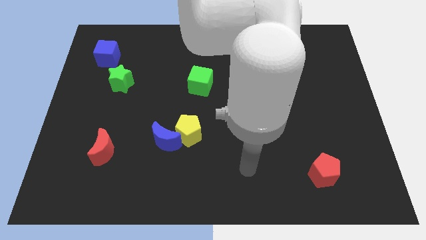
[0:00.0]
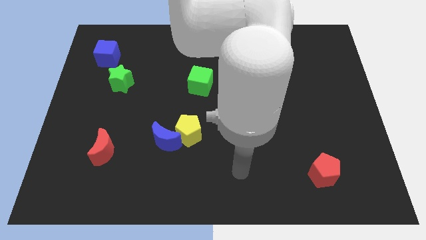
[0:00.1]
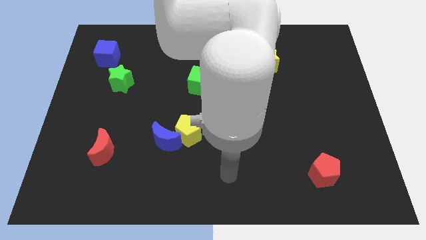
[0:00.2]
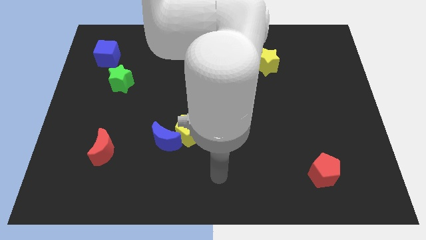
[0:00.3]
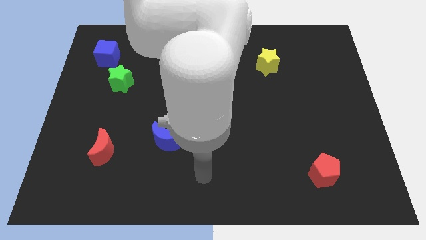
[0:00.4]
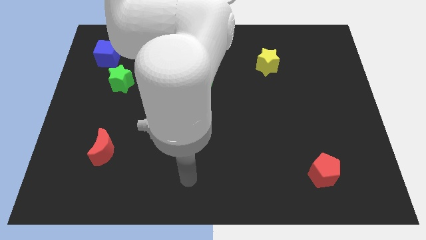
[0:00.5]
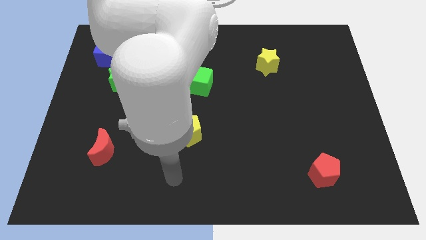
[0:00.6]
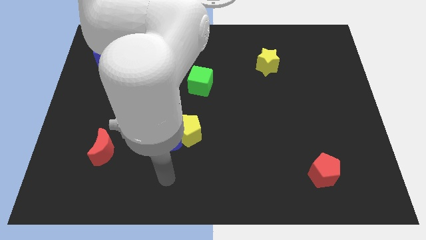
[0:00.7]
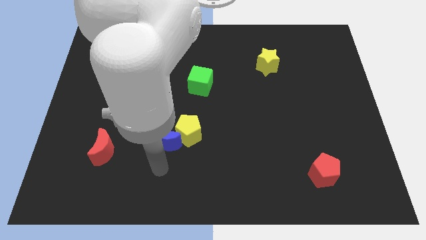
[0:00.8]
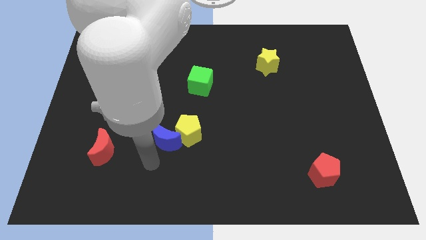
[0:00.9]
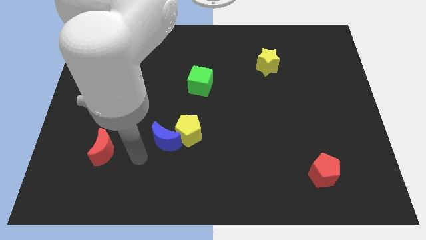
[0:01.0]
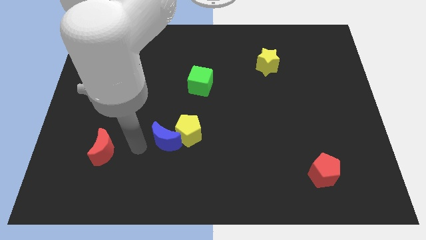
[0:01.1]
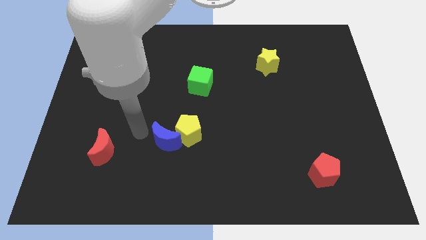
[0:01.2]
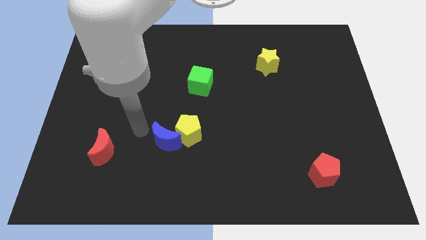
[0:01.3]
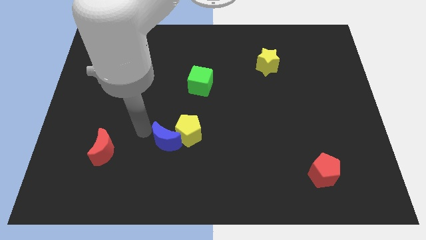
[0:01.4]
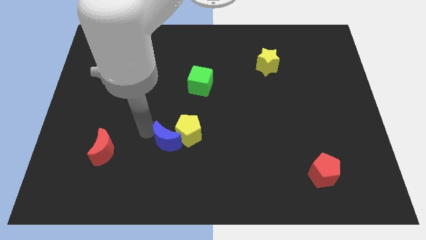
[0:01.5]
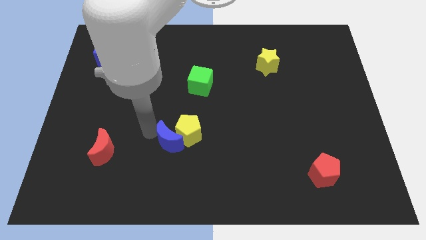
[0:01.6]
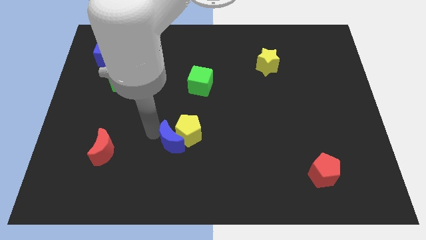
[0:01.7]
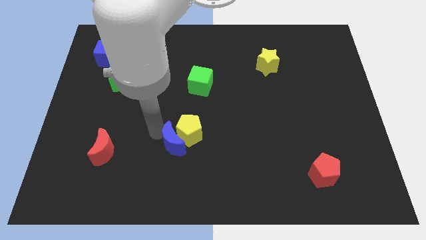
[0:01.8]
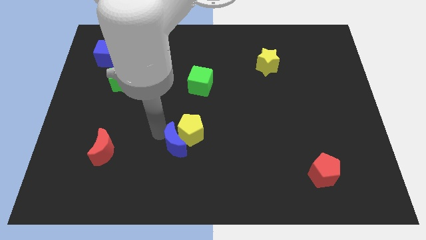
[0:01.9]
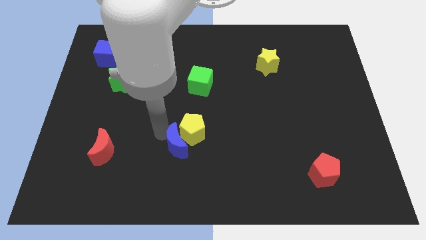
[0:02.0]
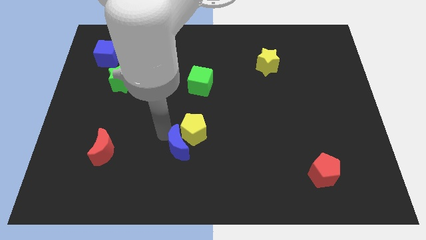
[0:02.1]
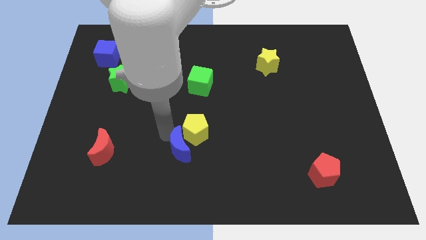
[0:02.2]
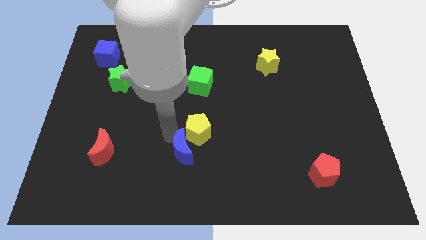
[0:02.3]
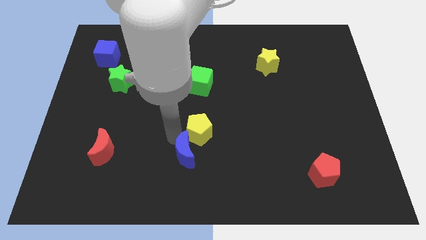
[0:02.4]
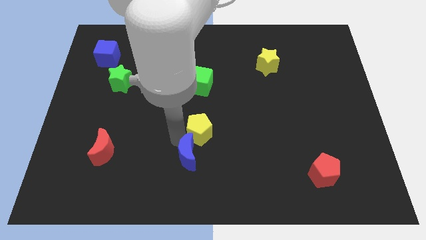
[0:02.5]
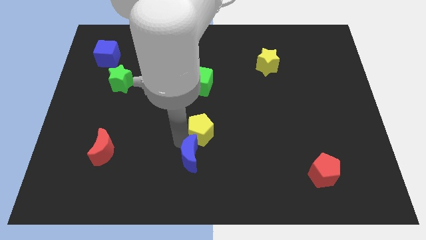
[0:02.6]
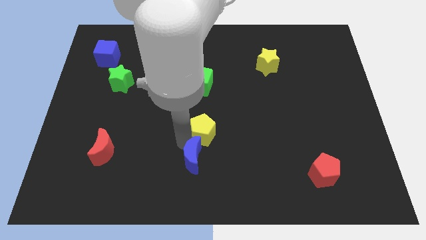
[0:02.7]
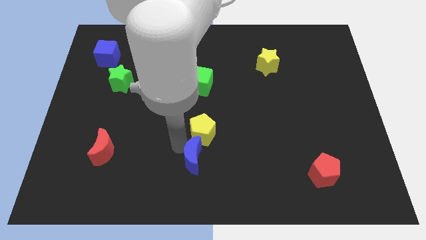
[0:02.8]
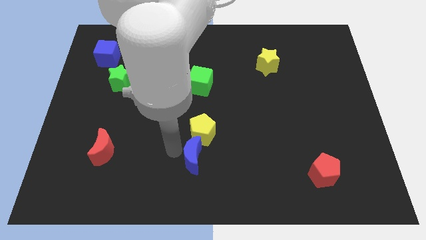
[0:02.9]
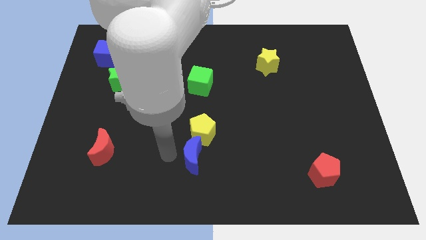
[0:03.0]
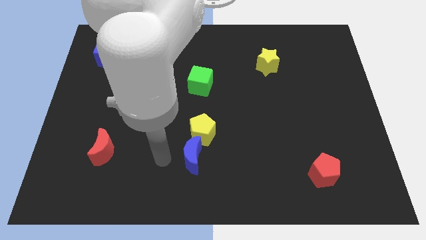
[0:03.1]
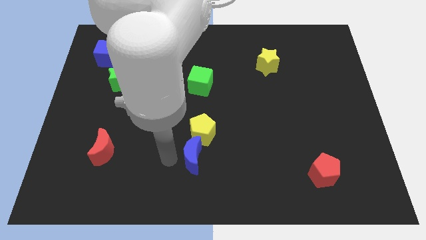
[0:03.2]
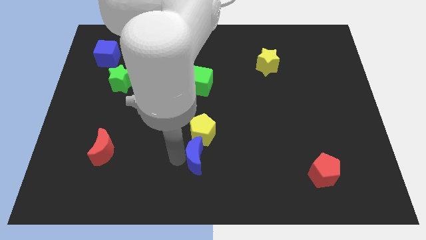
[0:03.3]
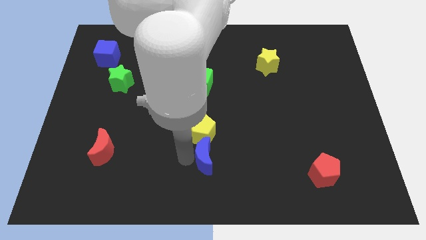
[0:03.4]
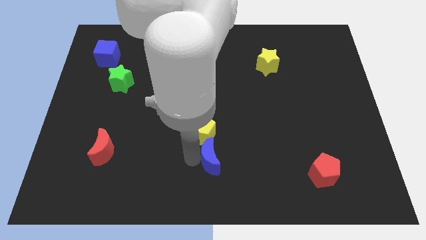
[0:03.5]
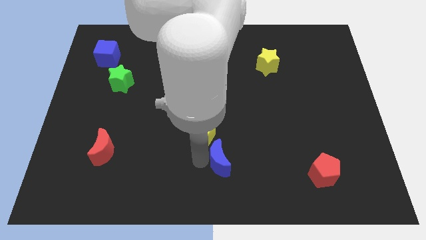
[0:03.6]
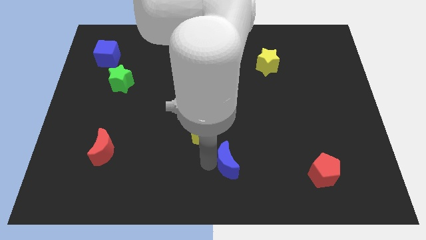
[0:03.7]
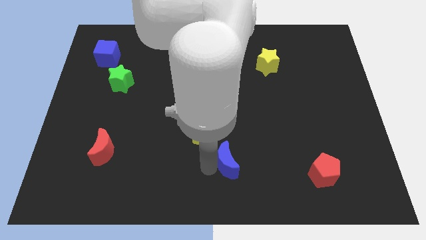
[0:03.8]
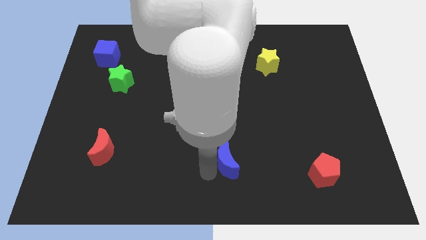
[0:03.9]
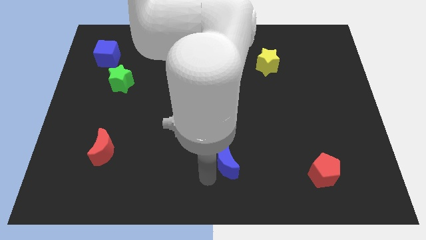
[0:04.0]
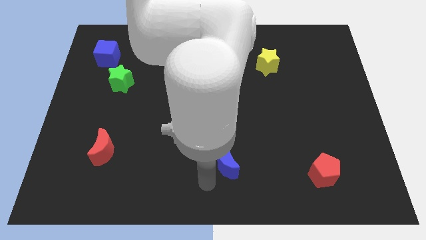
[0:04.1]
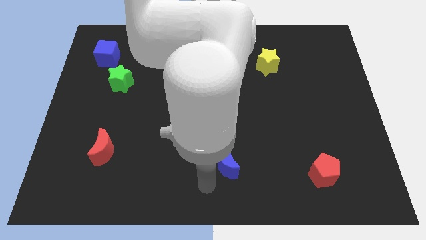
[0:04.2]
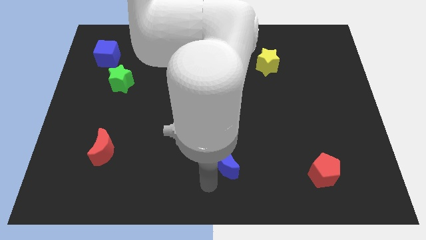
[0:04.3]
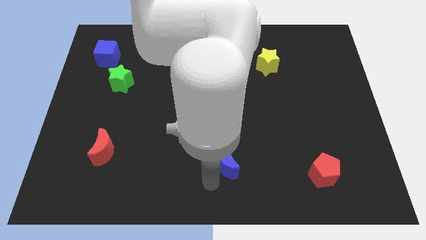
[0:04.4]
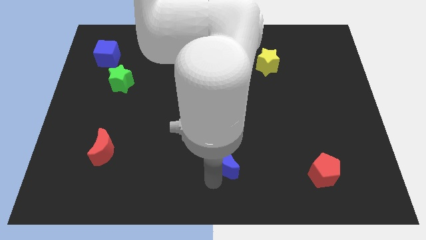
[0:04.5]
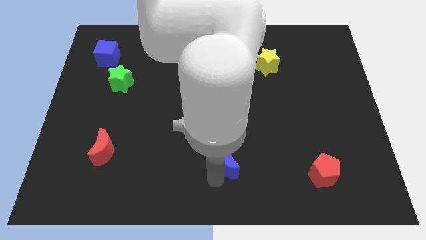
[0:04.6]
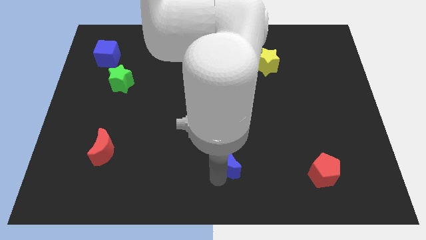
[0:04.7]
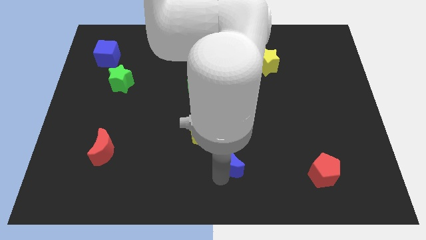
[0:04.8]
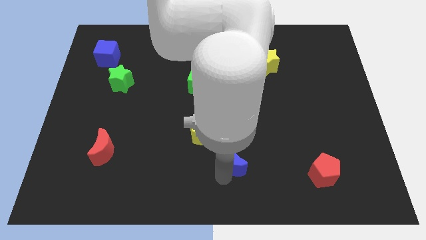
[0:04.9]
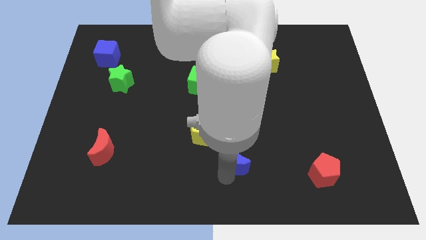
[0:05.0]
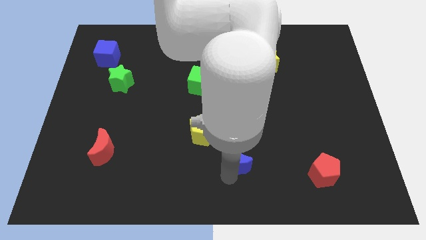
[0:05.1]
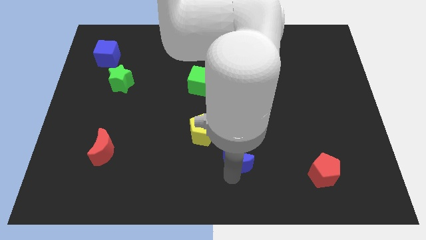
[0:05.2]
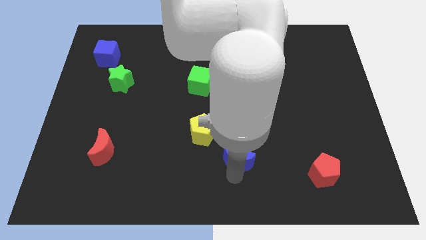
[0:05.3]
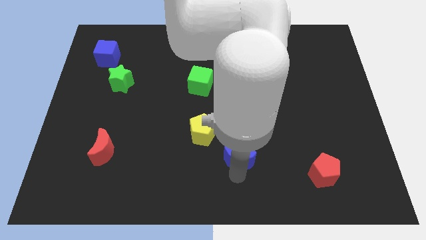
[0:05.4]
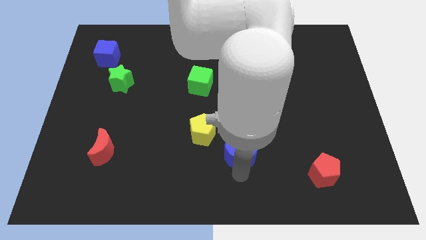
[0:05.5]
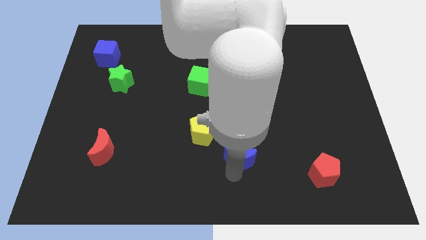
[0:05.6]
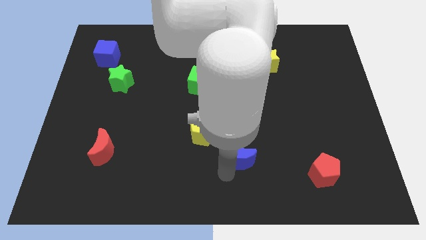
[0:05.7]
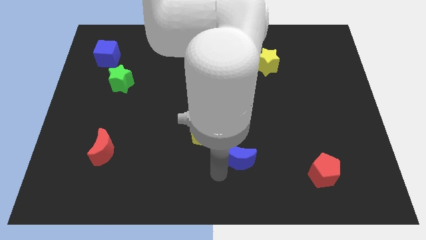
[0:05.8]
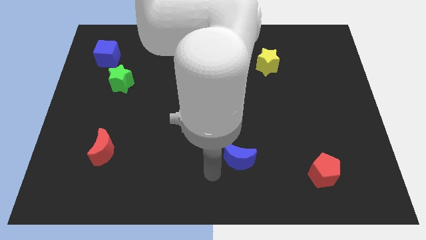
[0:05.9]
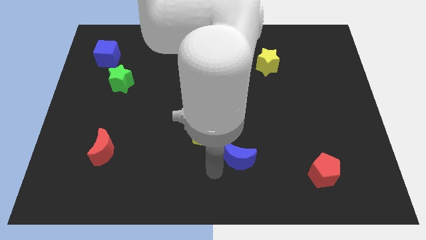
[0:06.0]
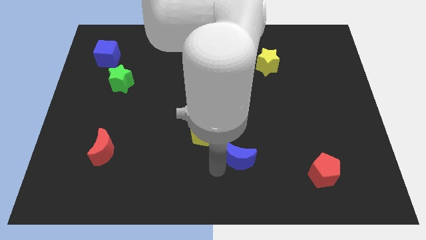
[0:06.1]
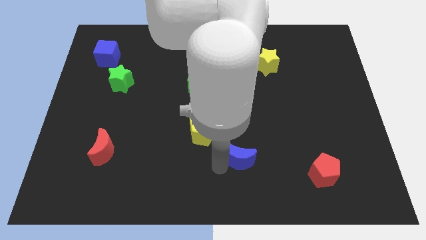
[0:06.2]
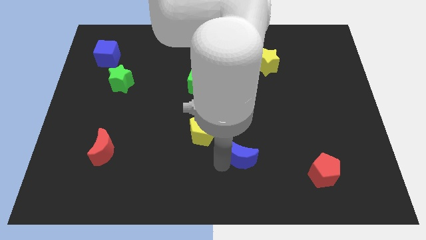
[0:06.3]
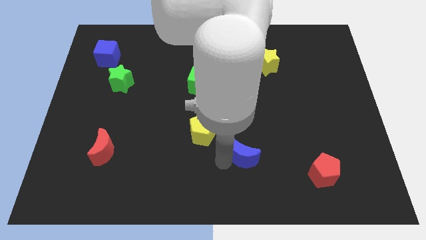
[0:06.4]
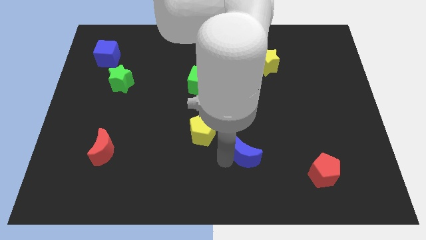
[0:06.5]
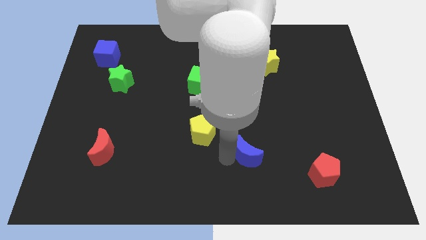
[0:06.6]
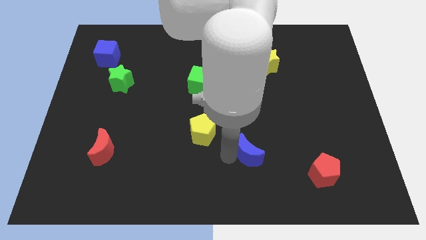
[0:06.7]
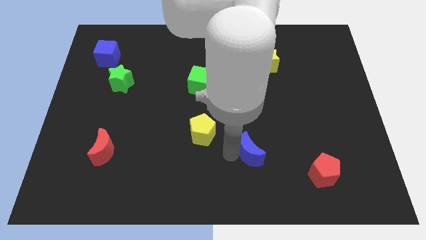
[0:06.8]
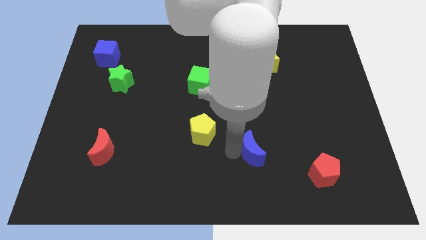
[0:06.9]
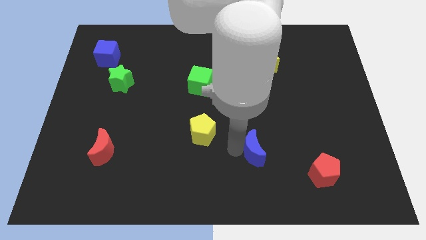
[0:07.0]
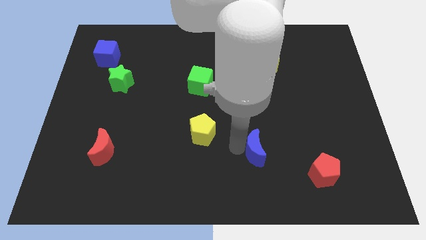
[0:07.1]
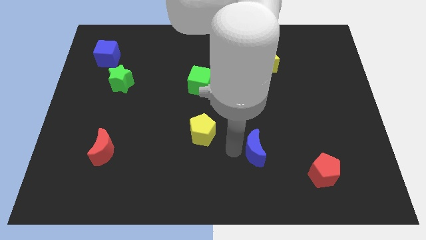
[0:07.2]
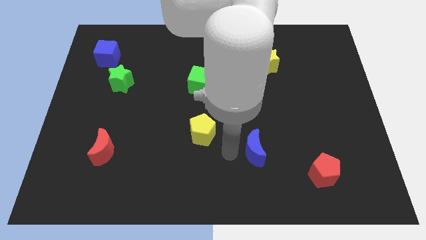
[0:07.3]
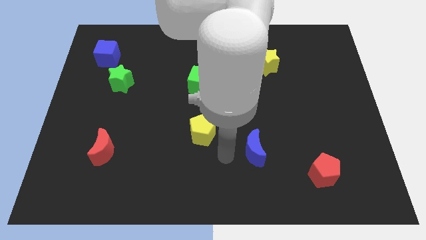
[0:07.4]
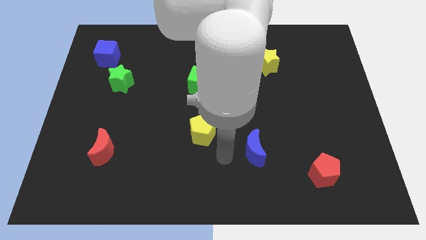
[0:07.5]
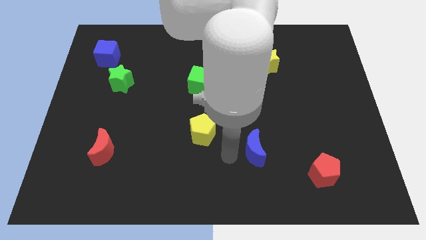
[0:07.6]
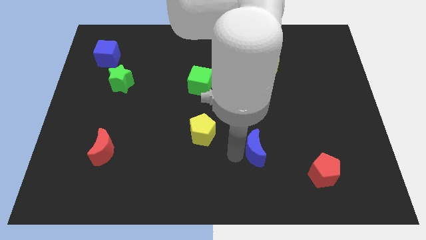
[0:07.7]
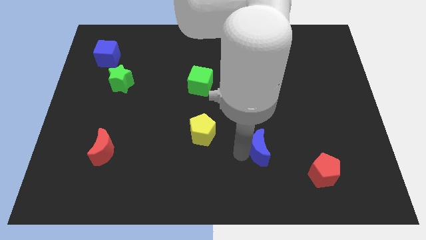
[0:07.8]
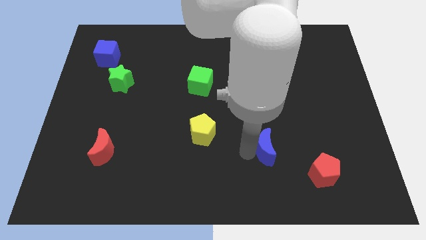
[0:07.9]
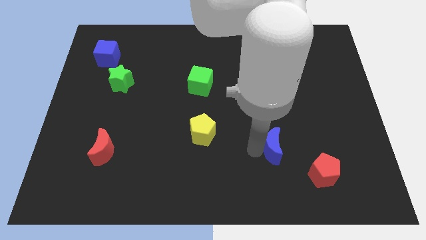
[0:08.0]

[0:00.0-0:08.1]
slide the blue moon diagonally up and to the left of the red pentagon
